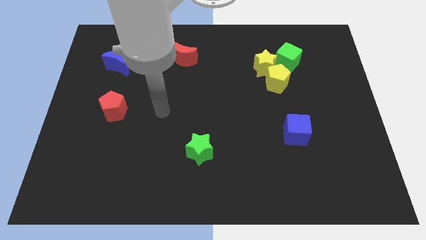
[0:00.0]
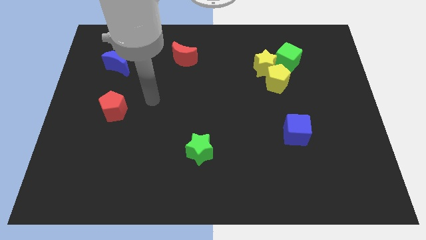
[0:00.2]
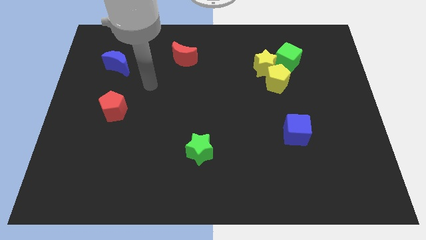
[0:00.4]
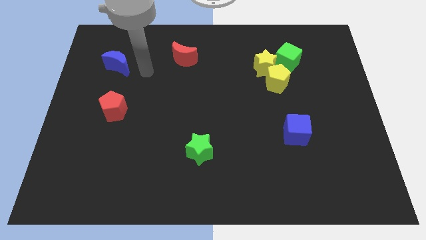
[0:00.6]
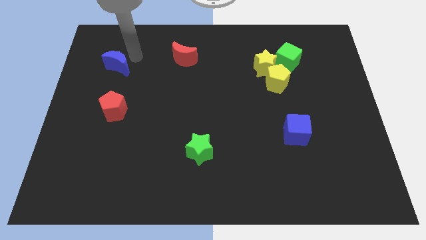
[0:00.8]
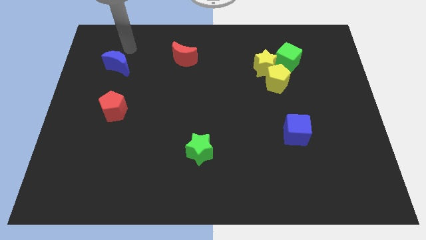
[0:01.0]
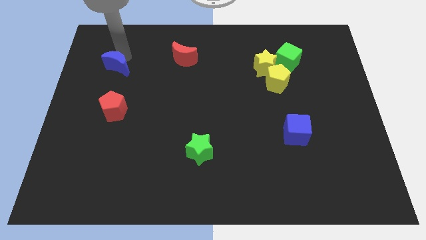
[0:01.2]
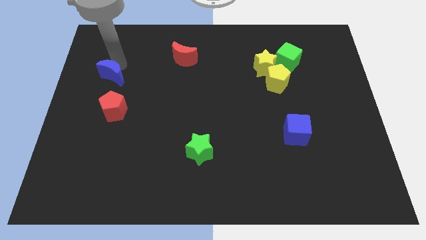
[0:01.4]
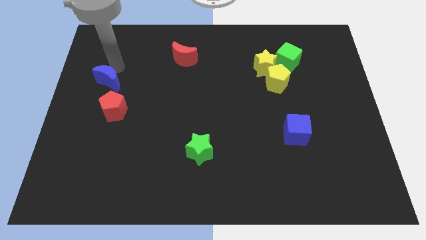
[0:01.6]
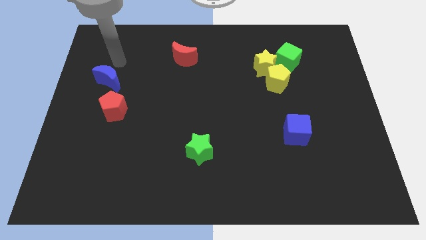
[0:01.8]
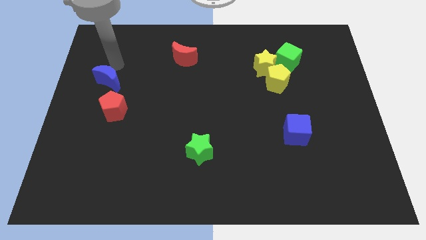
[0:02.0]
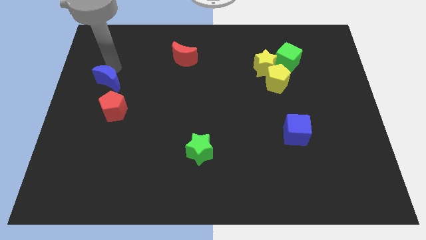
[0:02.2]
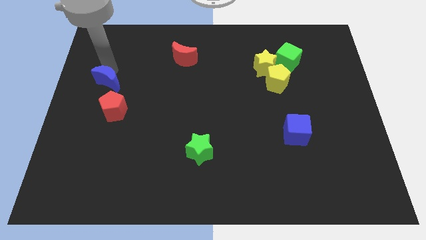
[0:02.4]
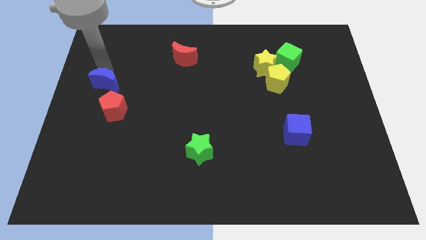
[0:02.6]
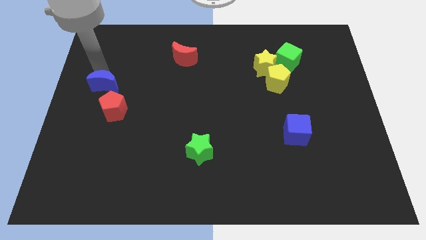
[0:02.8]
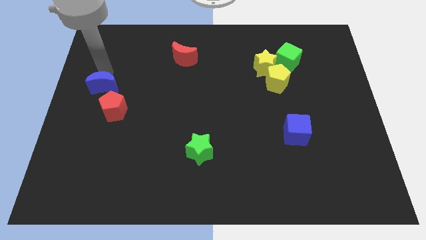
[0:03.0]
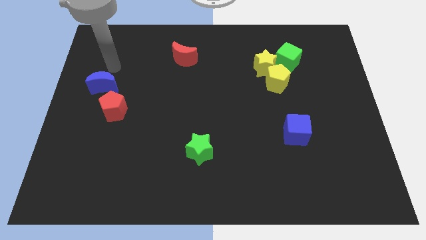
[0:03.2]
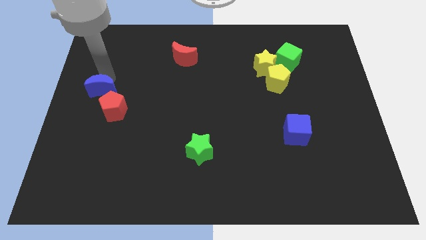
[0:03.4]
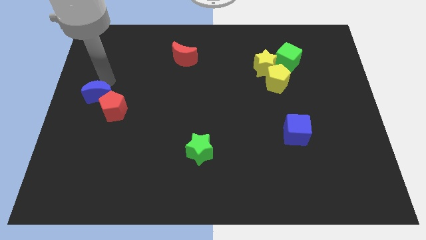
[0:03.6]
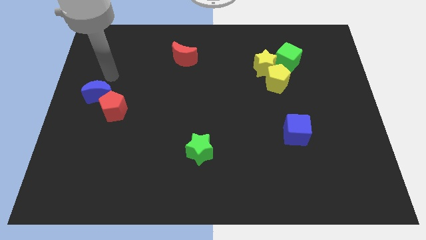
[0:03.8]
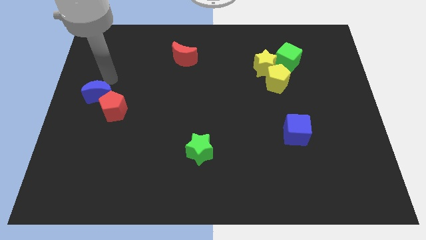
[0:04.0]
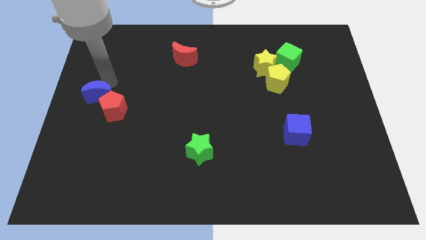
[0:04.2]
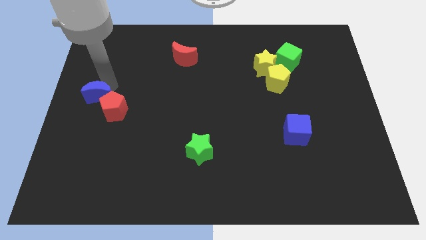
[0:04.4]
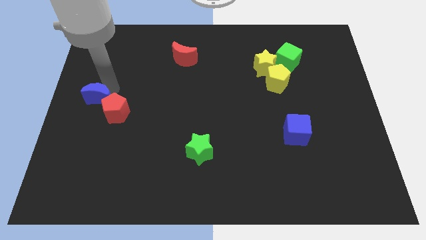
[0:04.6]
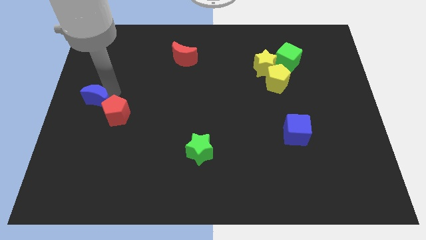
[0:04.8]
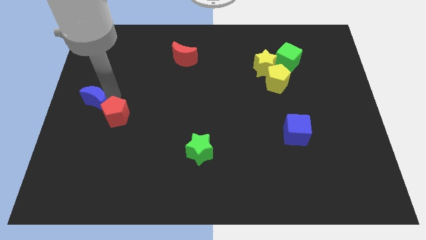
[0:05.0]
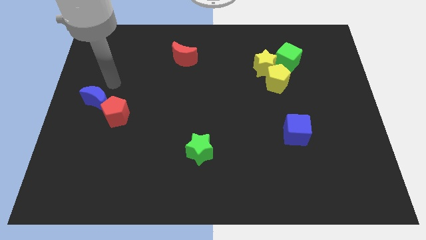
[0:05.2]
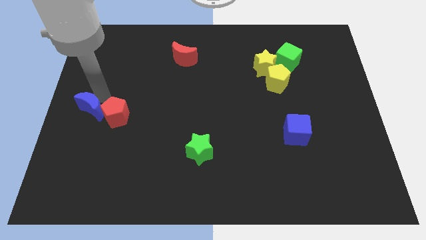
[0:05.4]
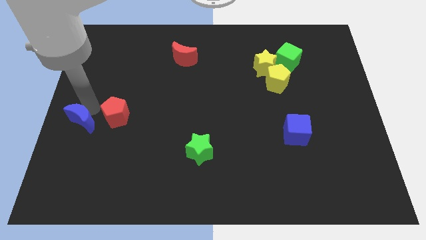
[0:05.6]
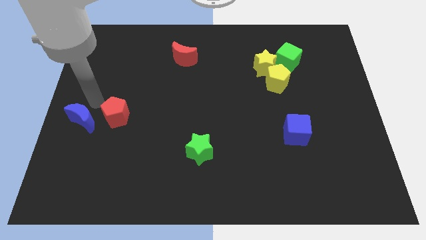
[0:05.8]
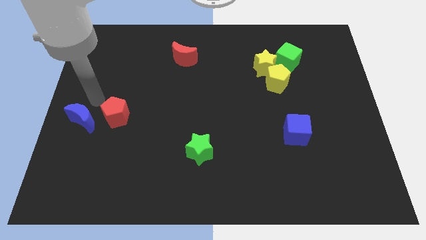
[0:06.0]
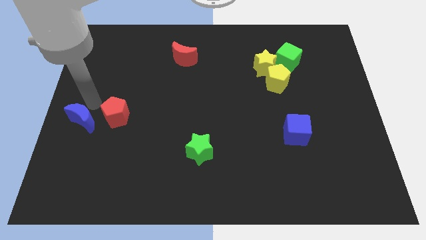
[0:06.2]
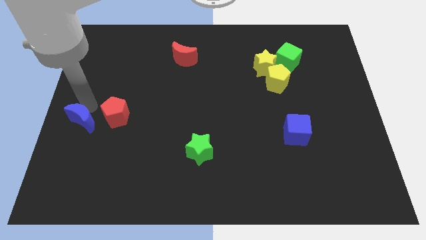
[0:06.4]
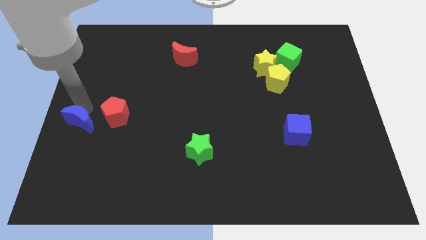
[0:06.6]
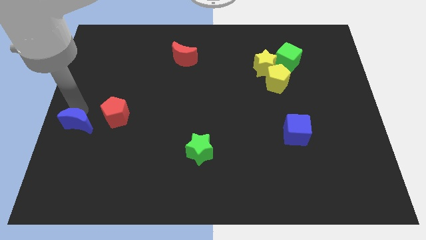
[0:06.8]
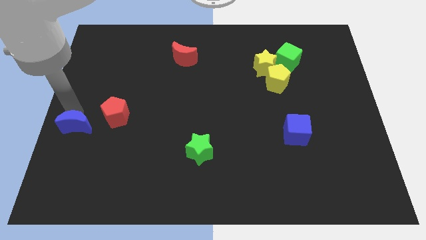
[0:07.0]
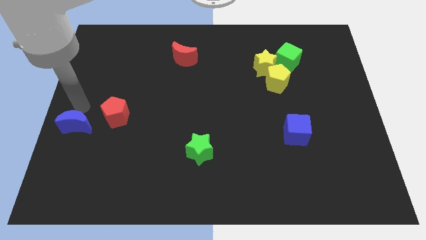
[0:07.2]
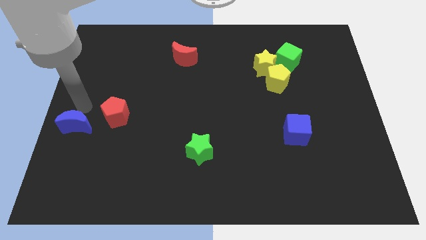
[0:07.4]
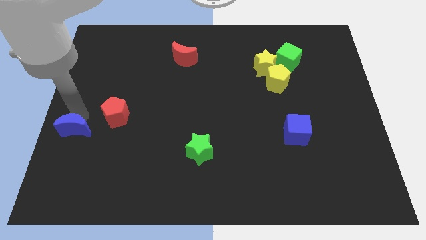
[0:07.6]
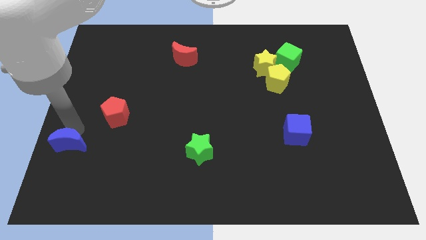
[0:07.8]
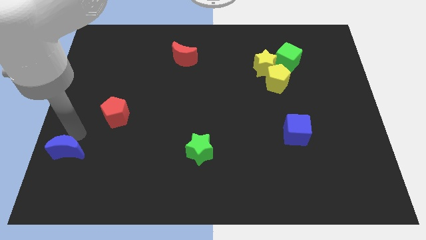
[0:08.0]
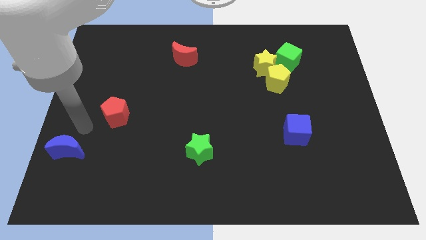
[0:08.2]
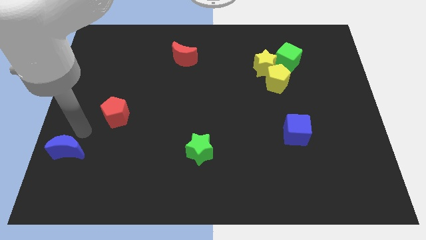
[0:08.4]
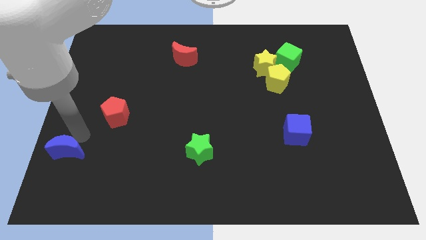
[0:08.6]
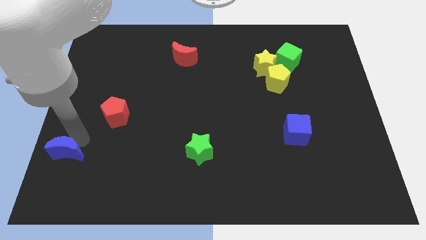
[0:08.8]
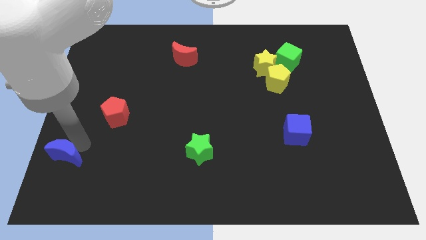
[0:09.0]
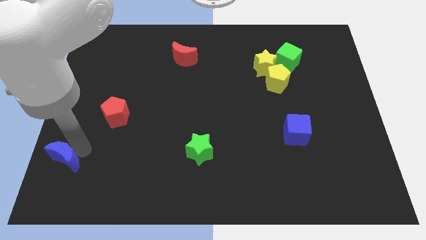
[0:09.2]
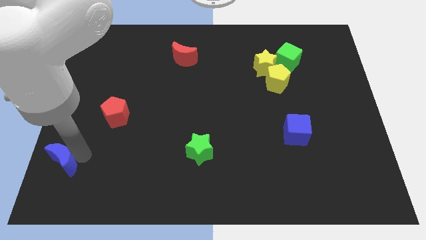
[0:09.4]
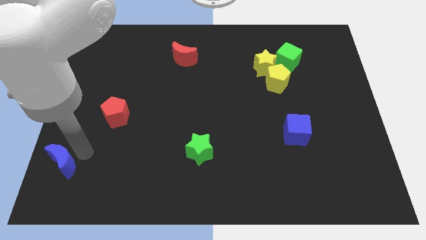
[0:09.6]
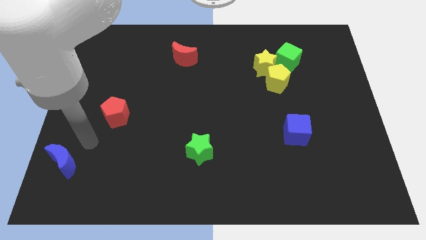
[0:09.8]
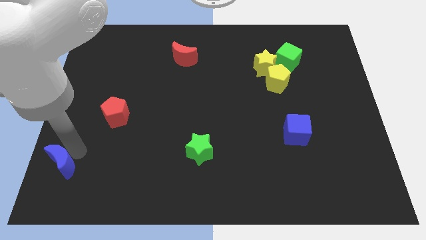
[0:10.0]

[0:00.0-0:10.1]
move the blue moon to the bottom left
